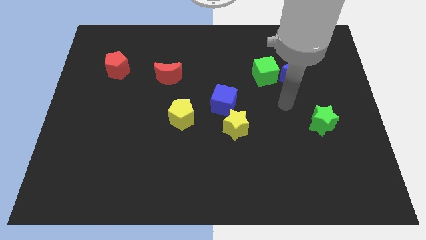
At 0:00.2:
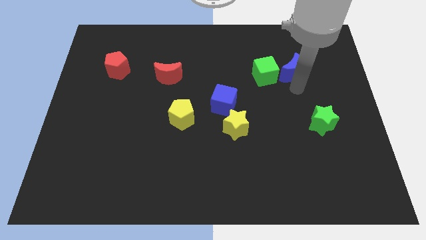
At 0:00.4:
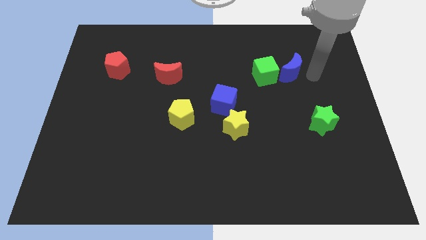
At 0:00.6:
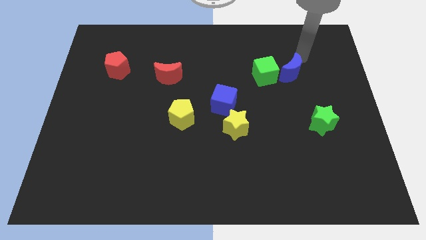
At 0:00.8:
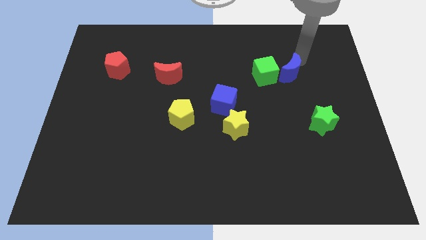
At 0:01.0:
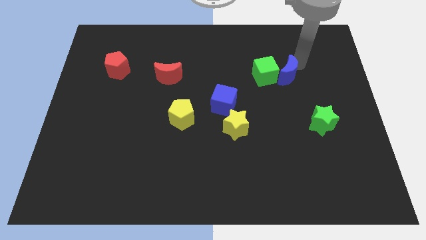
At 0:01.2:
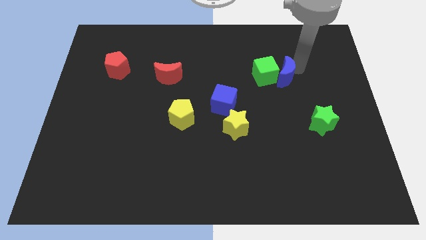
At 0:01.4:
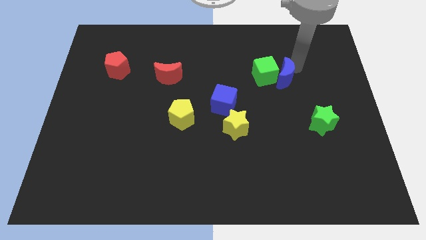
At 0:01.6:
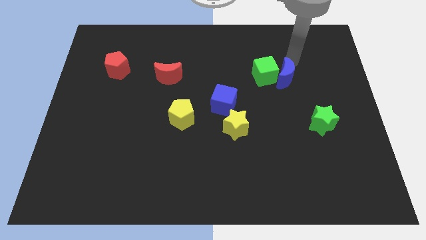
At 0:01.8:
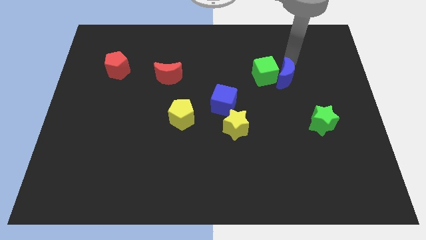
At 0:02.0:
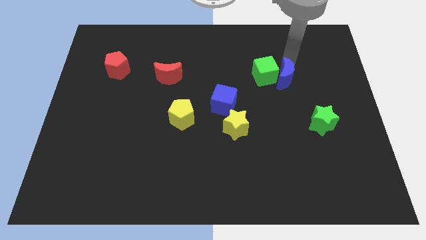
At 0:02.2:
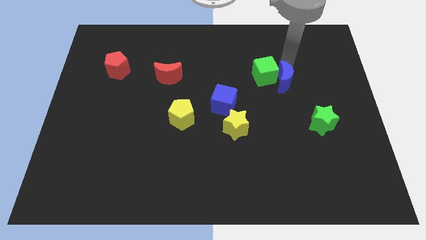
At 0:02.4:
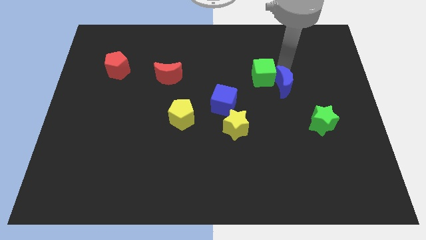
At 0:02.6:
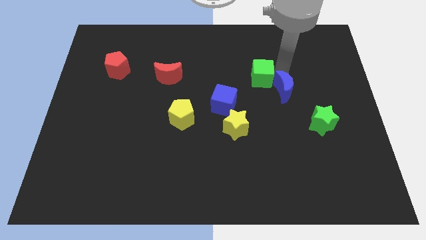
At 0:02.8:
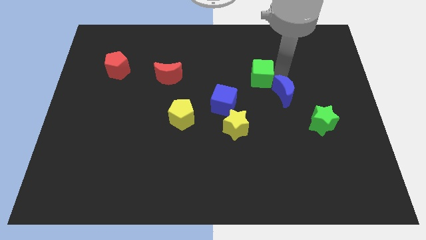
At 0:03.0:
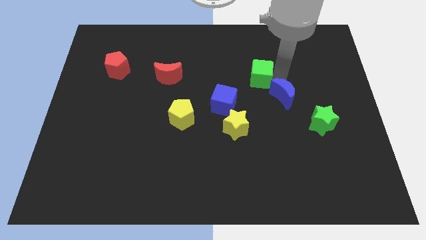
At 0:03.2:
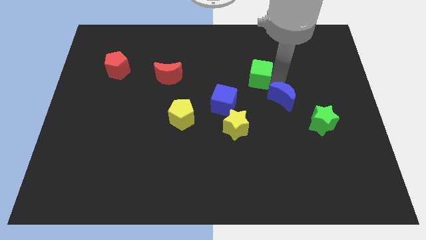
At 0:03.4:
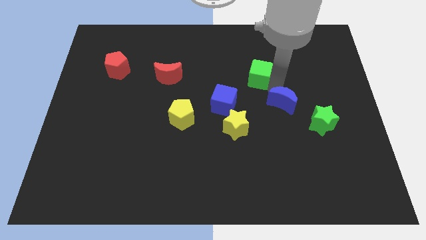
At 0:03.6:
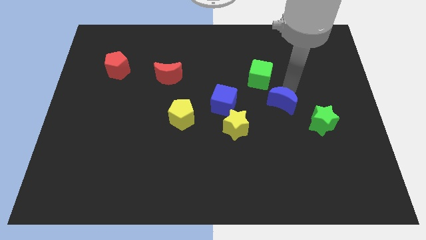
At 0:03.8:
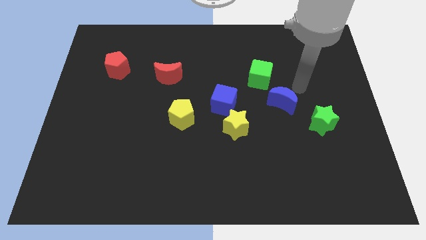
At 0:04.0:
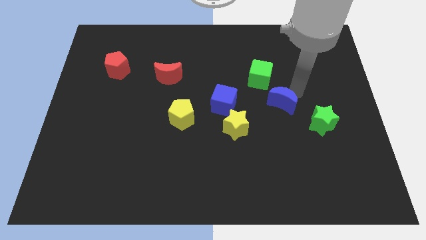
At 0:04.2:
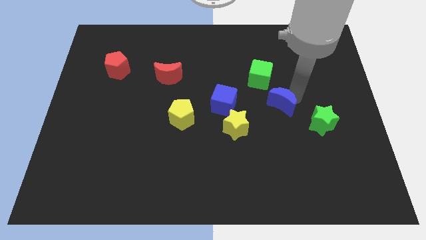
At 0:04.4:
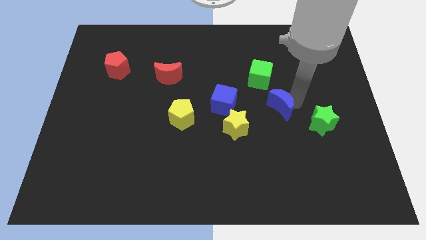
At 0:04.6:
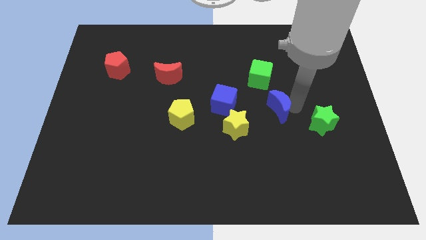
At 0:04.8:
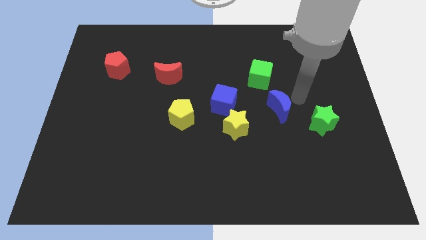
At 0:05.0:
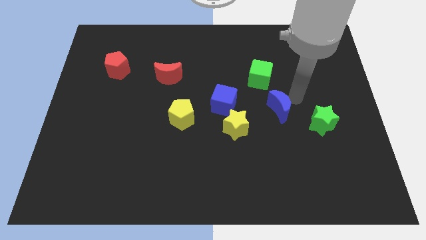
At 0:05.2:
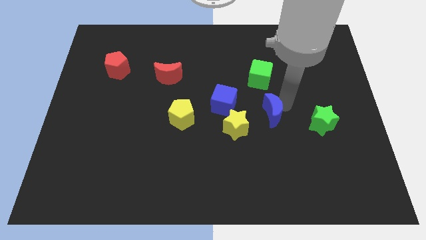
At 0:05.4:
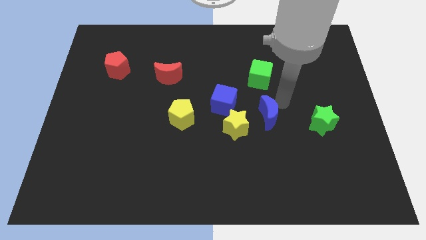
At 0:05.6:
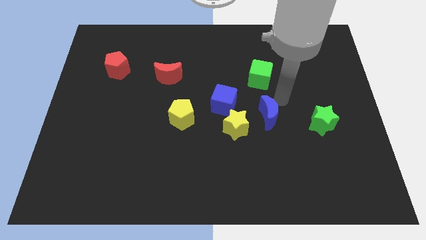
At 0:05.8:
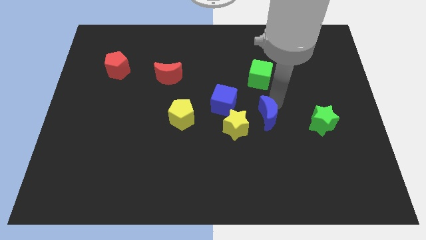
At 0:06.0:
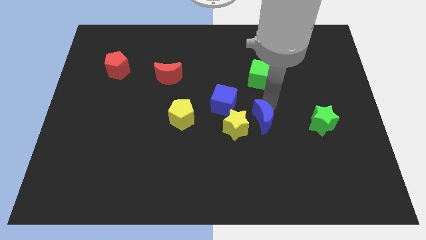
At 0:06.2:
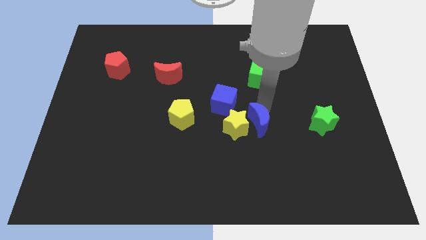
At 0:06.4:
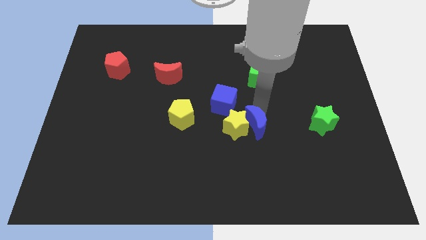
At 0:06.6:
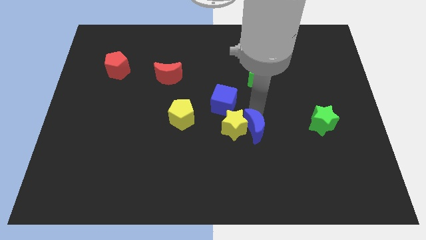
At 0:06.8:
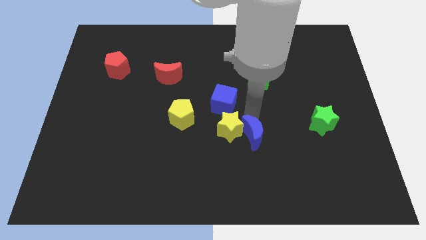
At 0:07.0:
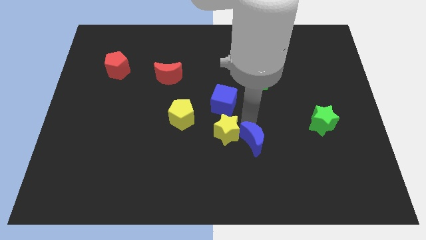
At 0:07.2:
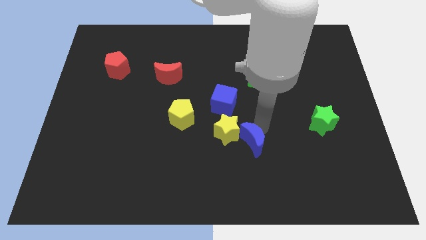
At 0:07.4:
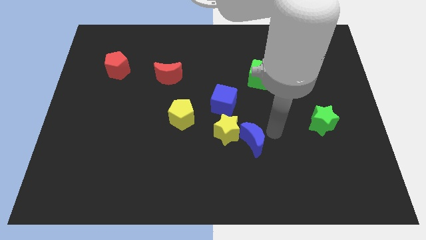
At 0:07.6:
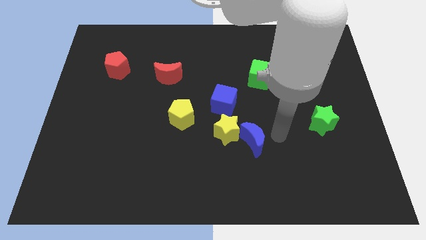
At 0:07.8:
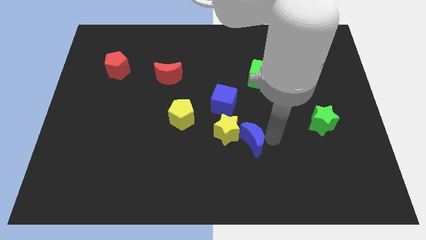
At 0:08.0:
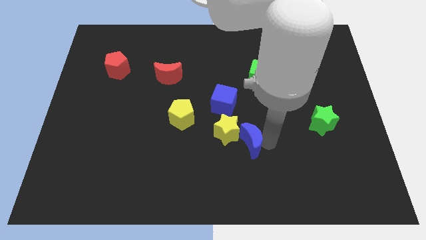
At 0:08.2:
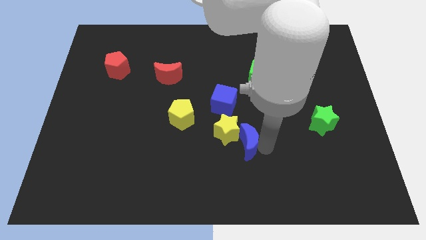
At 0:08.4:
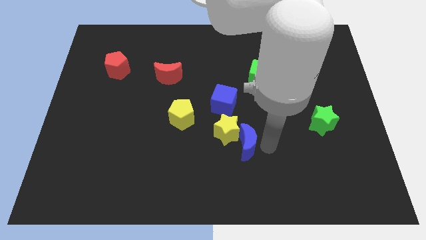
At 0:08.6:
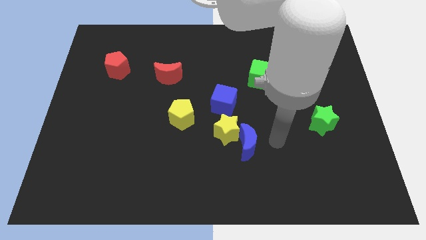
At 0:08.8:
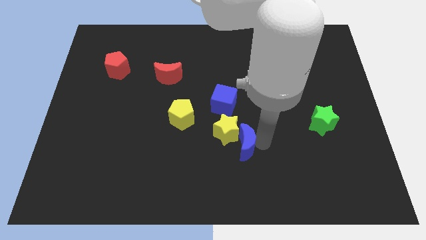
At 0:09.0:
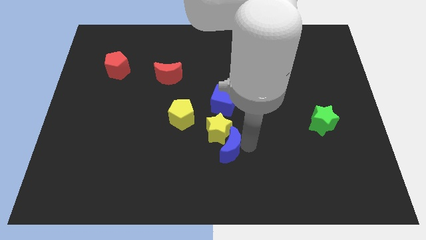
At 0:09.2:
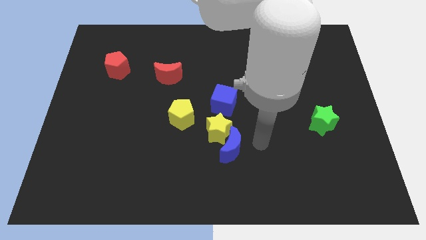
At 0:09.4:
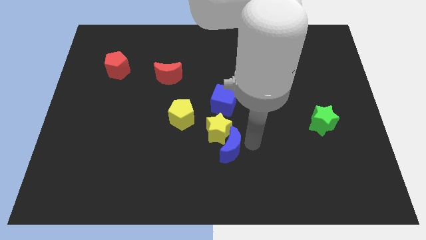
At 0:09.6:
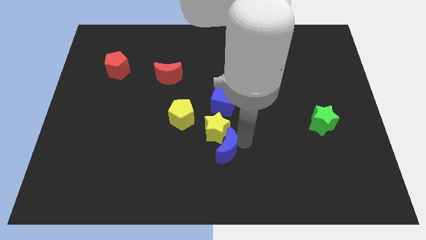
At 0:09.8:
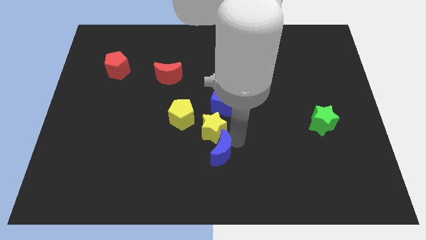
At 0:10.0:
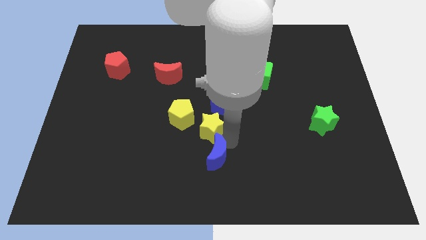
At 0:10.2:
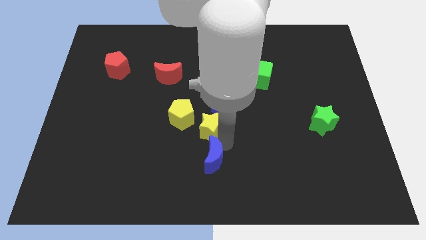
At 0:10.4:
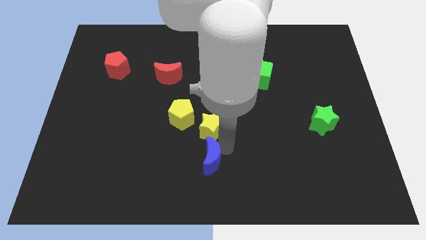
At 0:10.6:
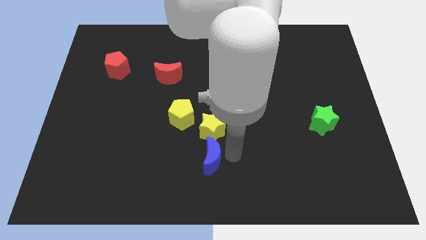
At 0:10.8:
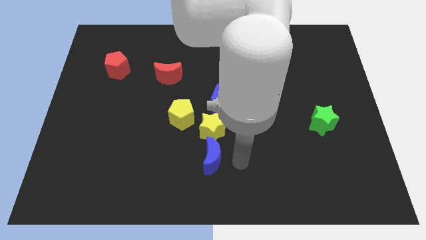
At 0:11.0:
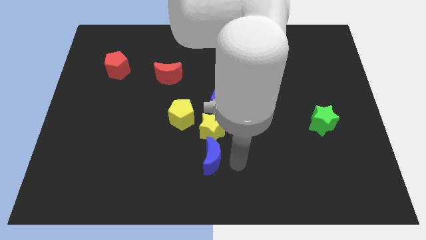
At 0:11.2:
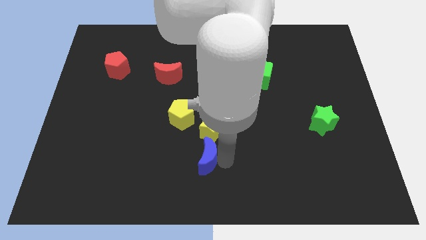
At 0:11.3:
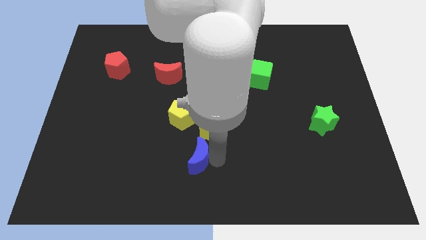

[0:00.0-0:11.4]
push the blue moon to the bottom of the yellow pentagon

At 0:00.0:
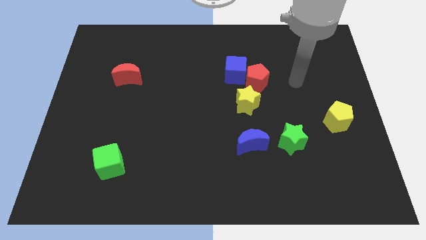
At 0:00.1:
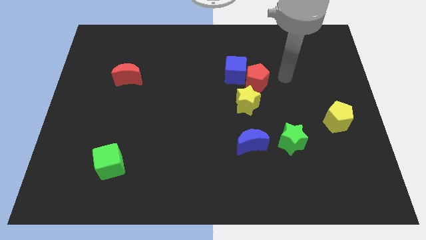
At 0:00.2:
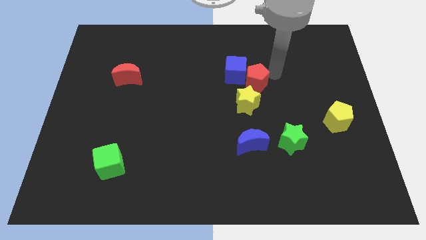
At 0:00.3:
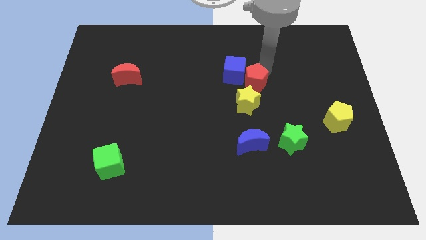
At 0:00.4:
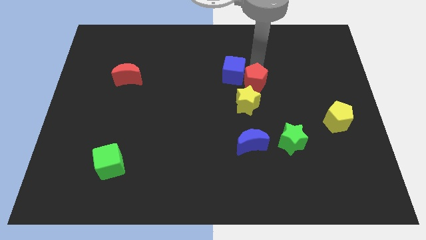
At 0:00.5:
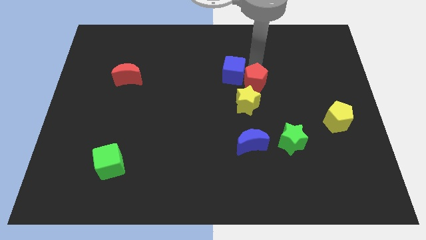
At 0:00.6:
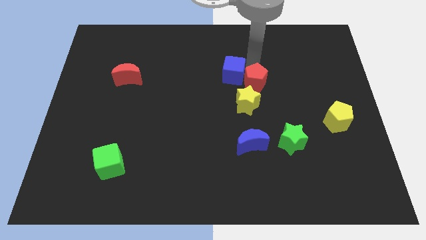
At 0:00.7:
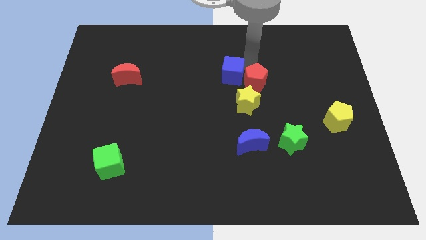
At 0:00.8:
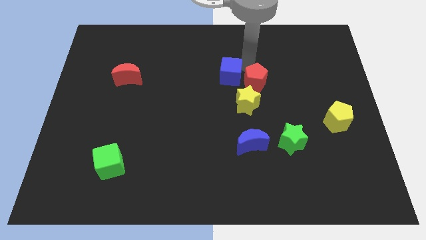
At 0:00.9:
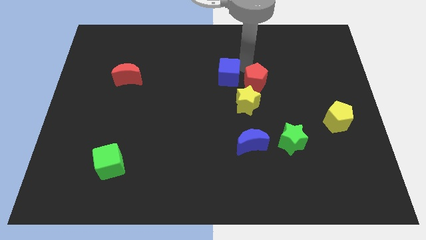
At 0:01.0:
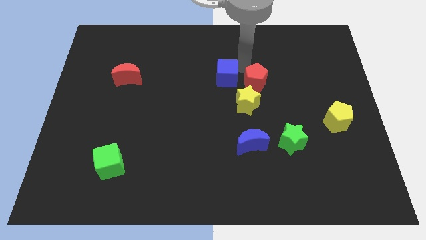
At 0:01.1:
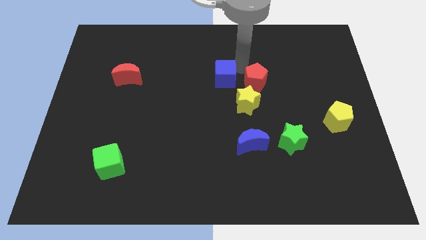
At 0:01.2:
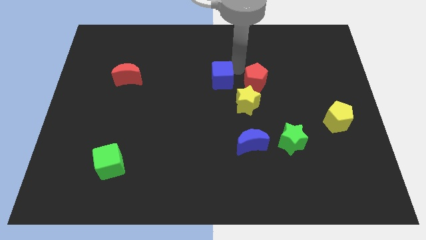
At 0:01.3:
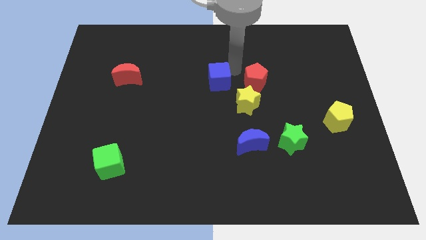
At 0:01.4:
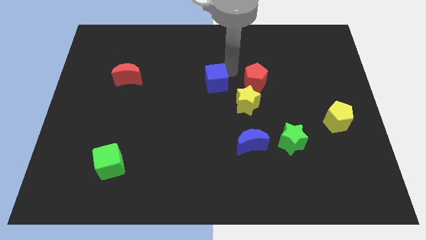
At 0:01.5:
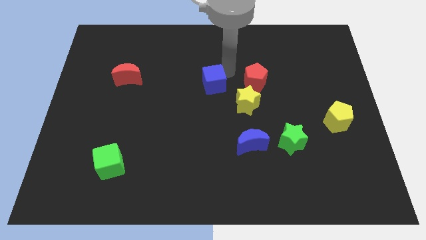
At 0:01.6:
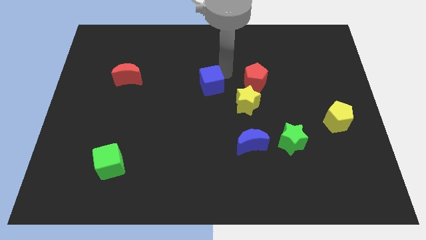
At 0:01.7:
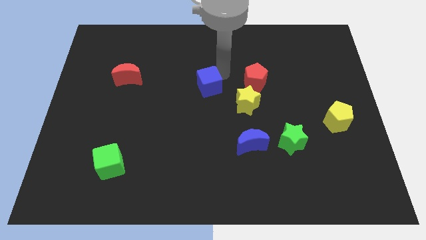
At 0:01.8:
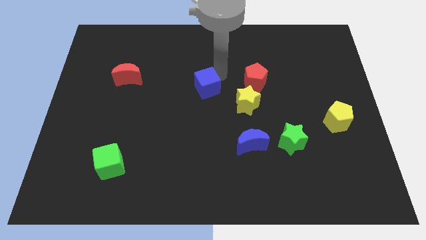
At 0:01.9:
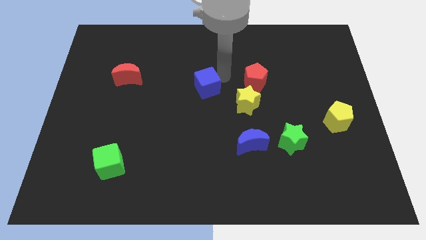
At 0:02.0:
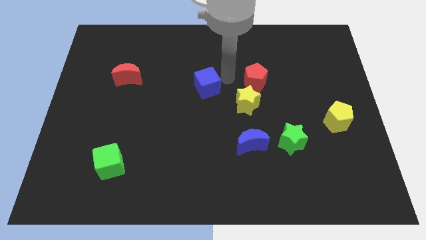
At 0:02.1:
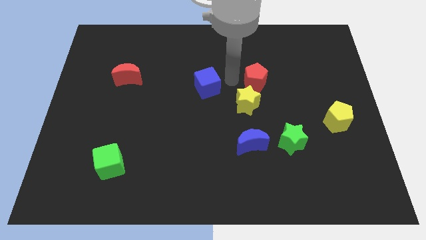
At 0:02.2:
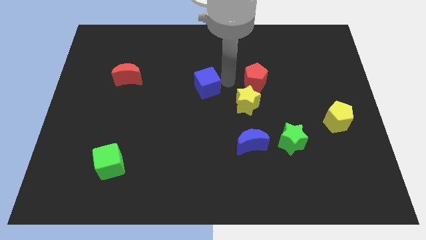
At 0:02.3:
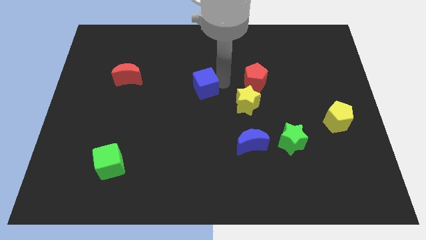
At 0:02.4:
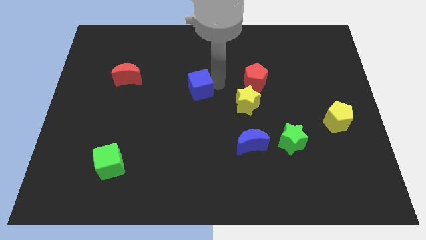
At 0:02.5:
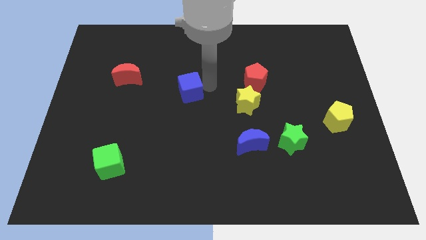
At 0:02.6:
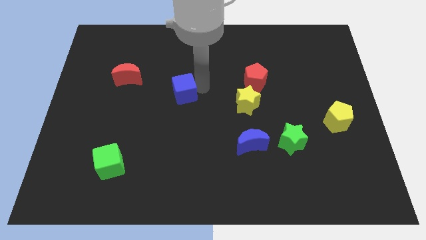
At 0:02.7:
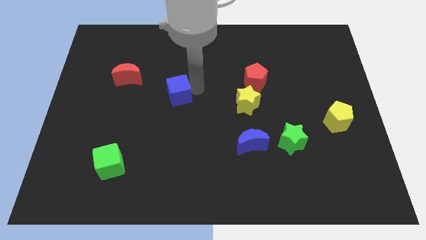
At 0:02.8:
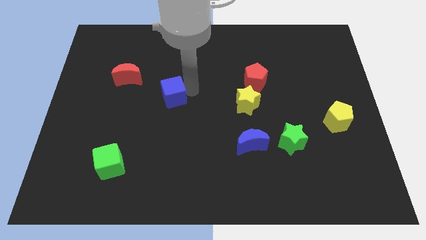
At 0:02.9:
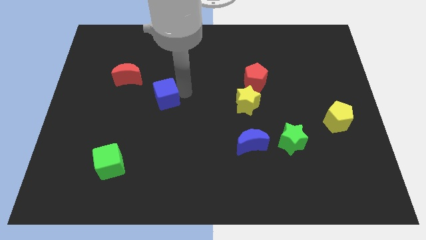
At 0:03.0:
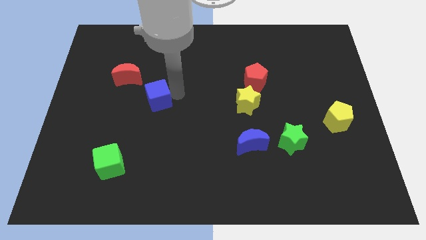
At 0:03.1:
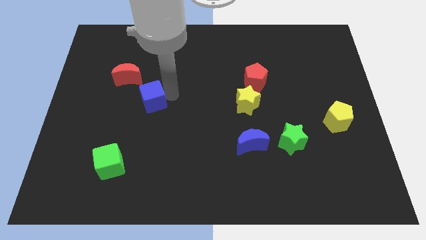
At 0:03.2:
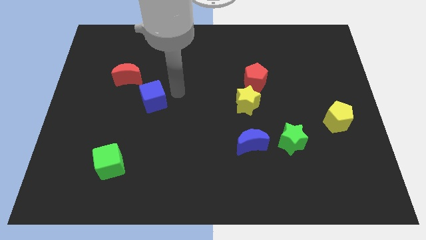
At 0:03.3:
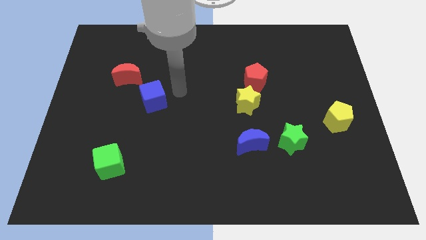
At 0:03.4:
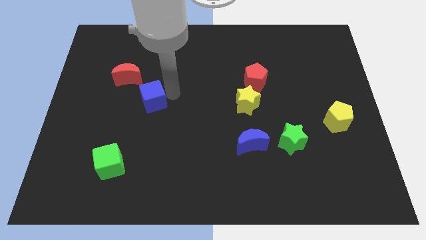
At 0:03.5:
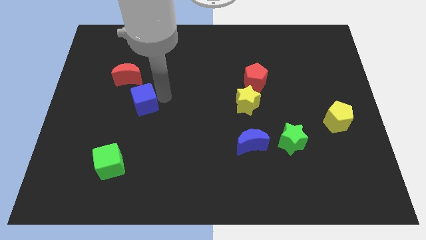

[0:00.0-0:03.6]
push the blue cube to the bottom of the red moon
